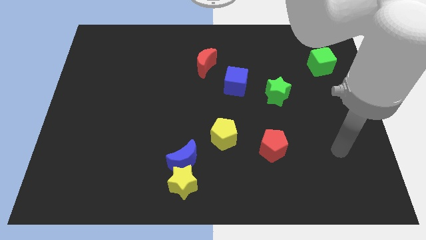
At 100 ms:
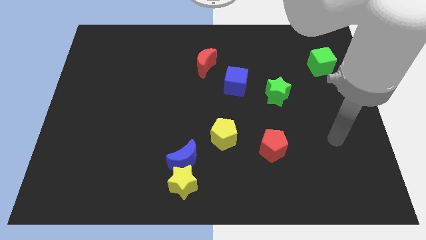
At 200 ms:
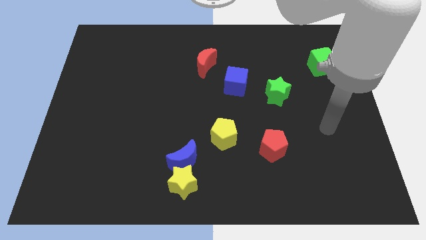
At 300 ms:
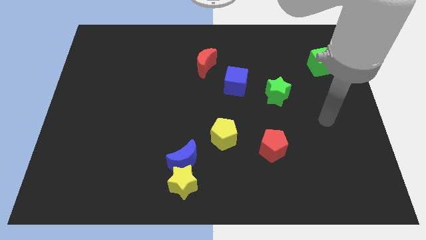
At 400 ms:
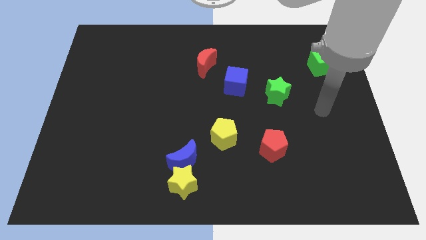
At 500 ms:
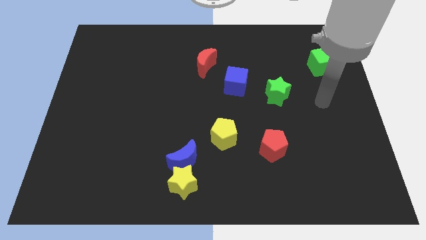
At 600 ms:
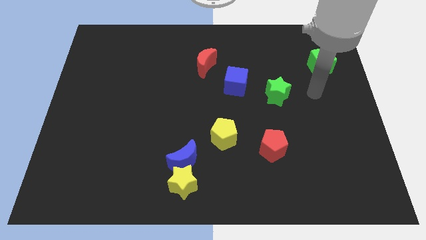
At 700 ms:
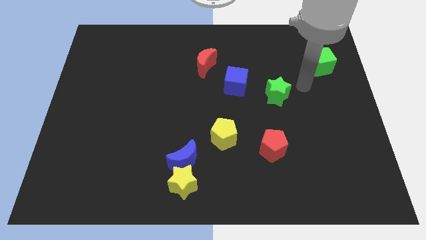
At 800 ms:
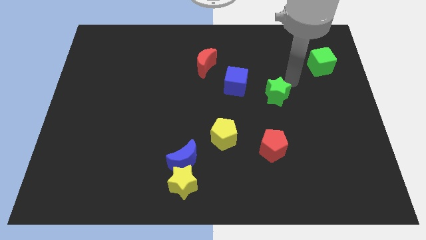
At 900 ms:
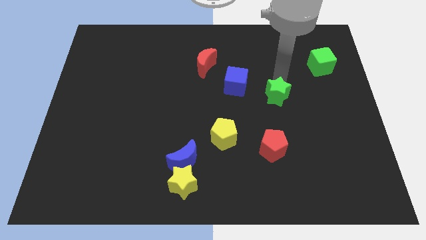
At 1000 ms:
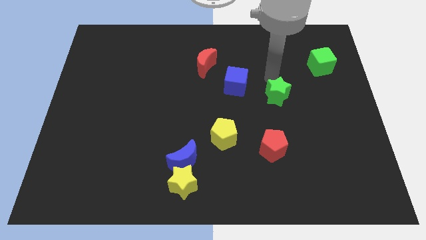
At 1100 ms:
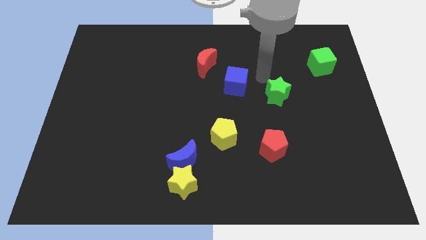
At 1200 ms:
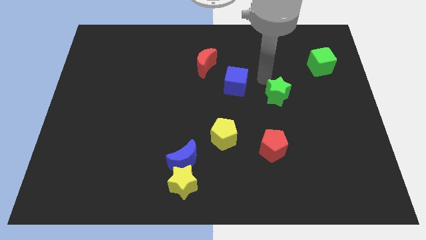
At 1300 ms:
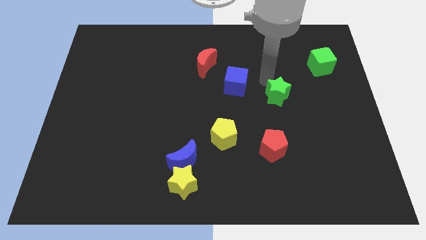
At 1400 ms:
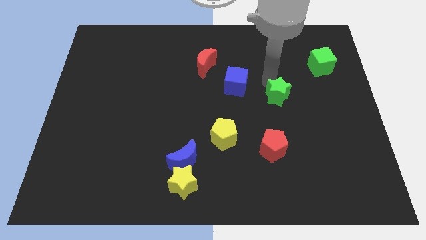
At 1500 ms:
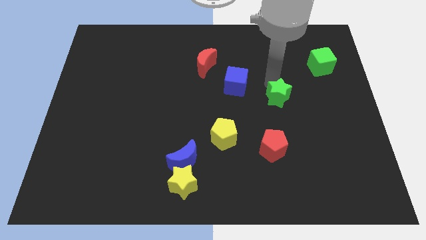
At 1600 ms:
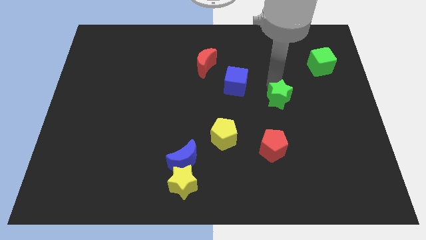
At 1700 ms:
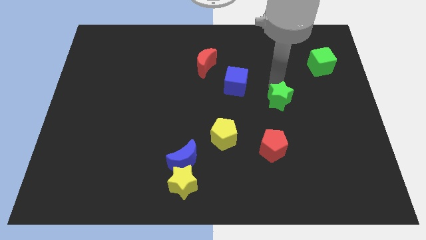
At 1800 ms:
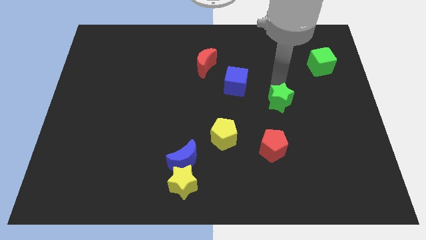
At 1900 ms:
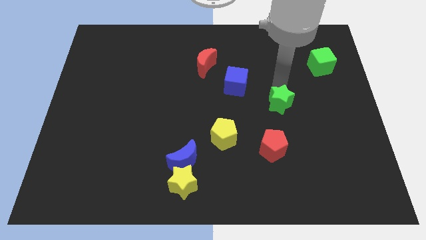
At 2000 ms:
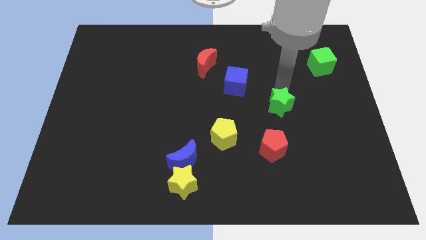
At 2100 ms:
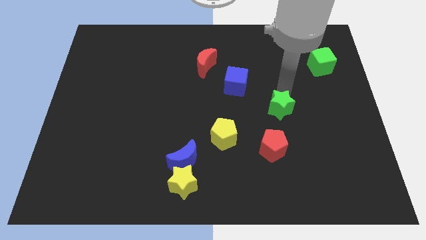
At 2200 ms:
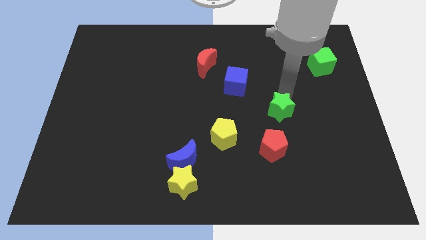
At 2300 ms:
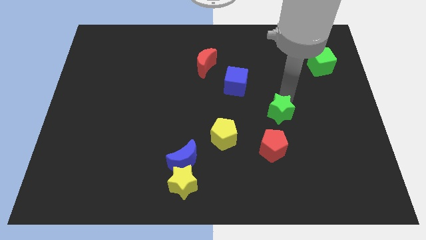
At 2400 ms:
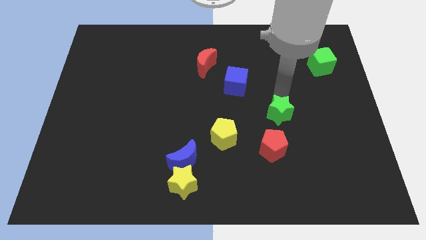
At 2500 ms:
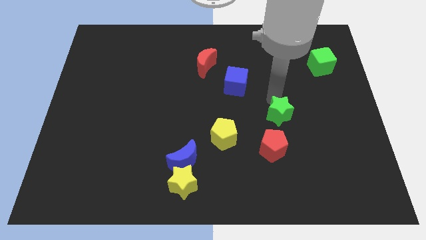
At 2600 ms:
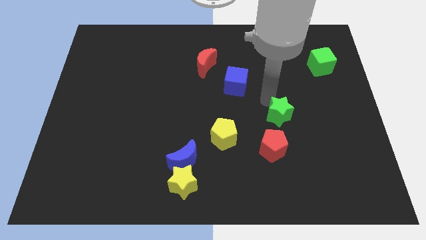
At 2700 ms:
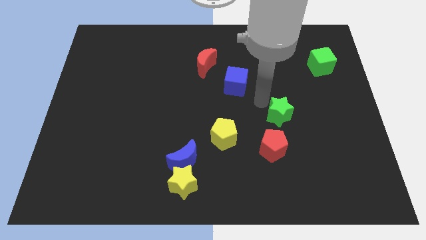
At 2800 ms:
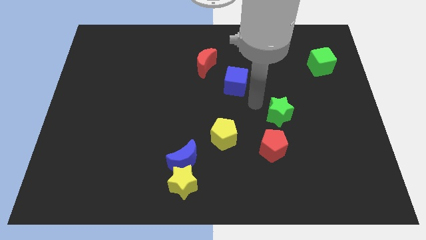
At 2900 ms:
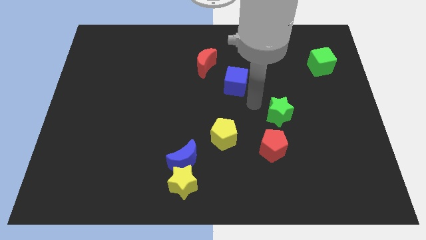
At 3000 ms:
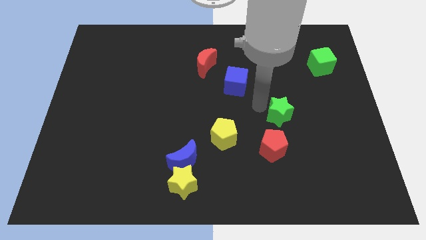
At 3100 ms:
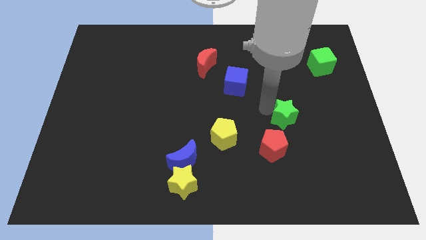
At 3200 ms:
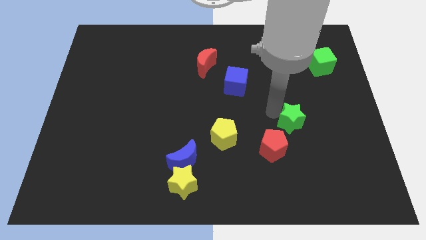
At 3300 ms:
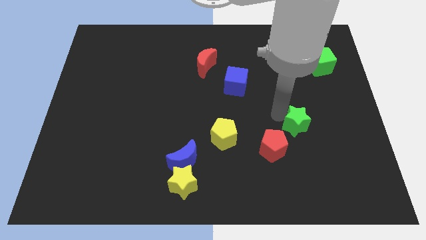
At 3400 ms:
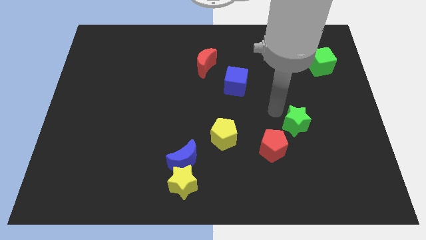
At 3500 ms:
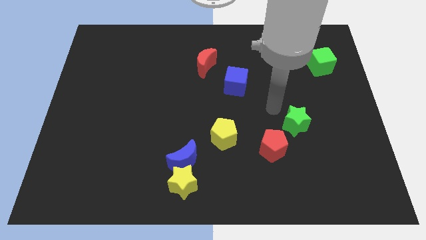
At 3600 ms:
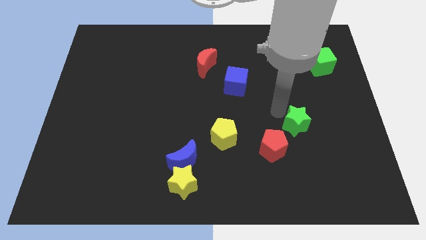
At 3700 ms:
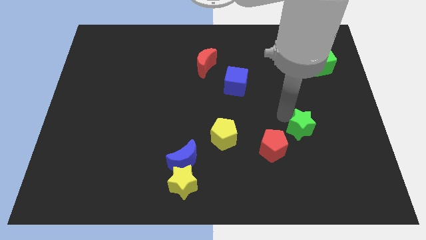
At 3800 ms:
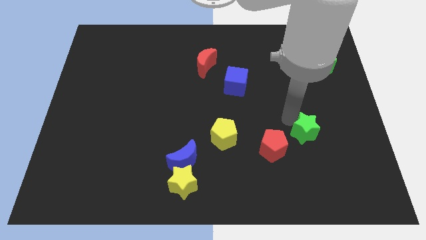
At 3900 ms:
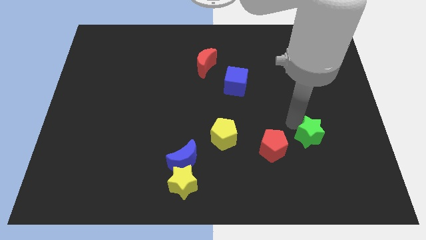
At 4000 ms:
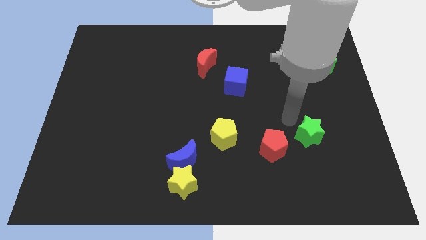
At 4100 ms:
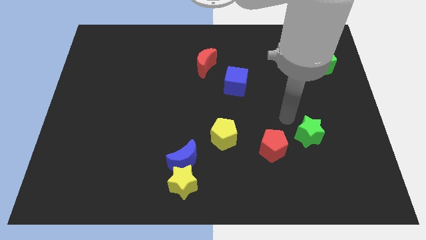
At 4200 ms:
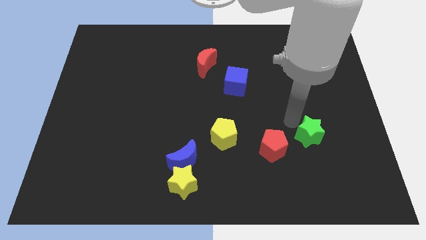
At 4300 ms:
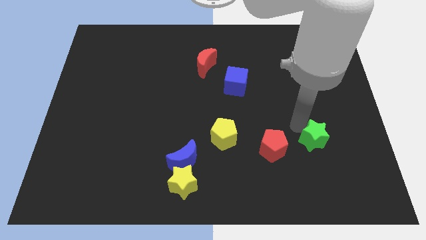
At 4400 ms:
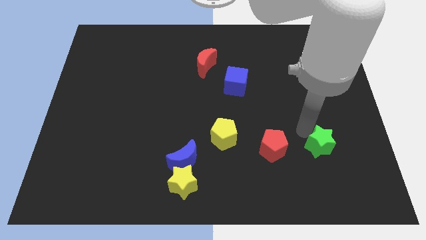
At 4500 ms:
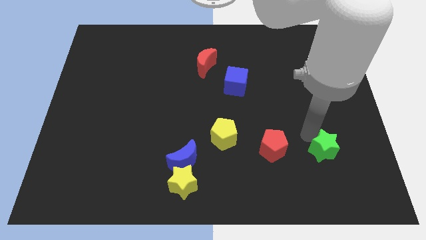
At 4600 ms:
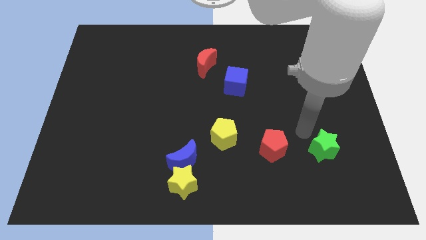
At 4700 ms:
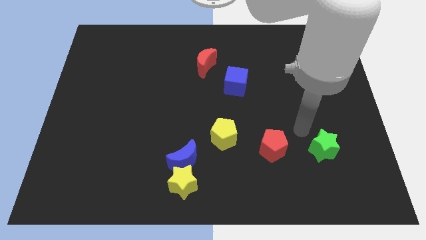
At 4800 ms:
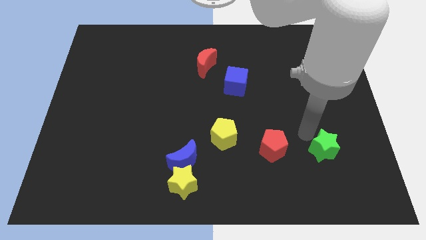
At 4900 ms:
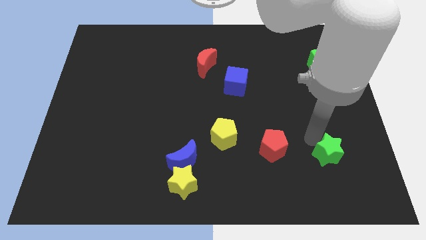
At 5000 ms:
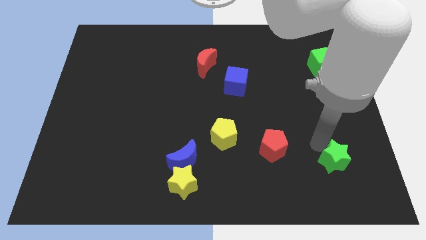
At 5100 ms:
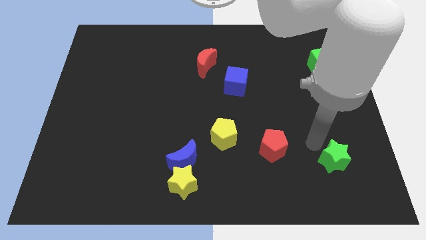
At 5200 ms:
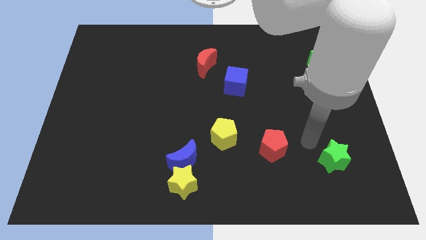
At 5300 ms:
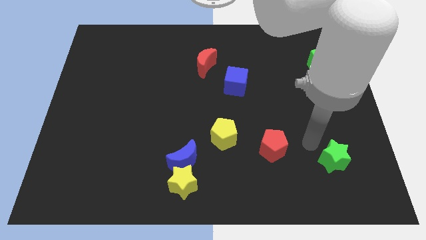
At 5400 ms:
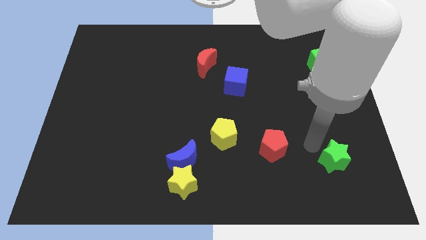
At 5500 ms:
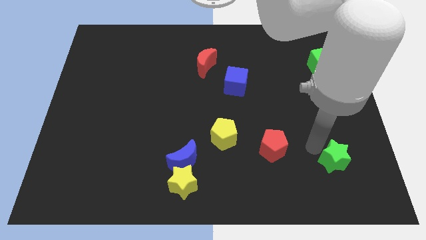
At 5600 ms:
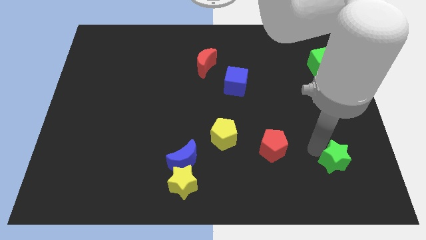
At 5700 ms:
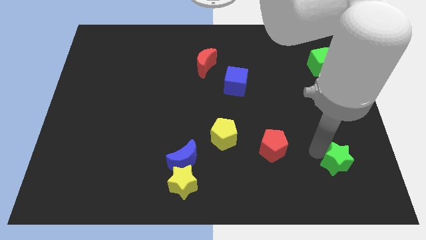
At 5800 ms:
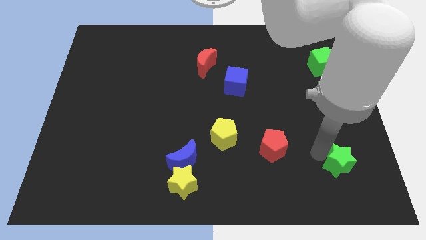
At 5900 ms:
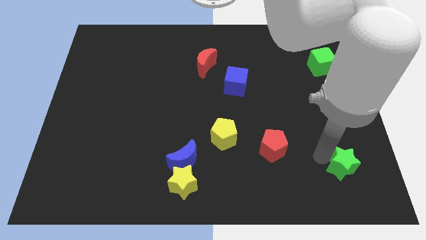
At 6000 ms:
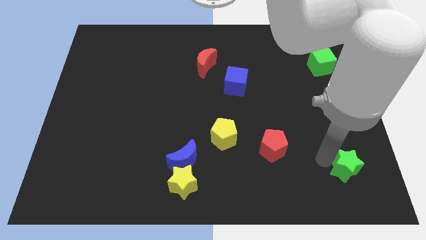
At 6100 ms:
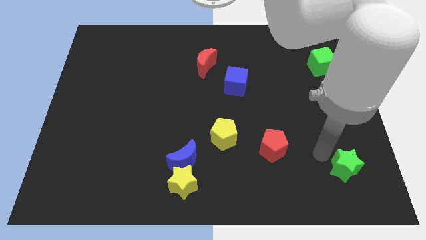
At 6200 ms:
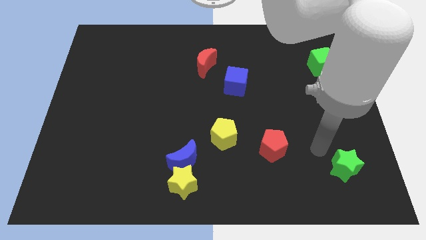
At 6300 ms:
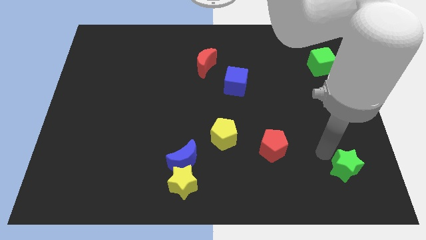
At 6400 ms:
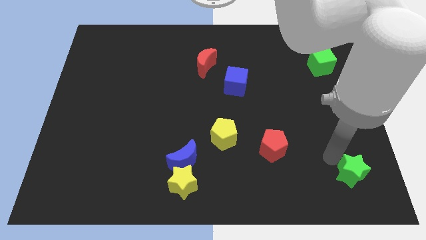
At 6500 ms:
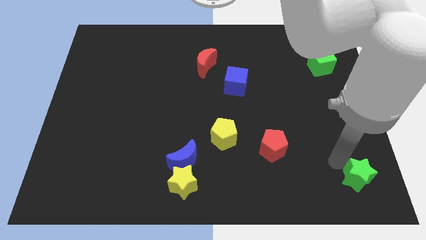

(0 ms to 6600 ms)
put the green star to the bottom right of the board

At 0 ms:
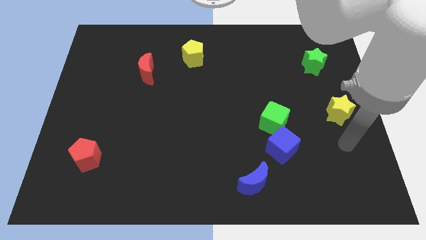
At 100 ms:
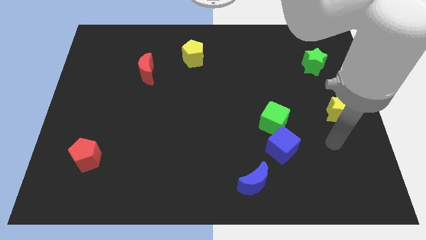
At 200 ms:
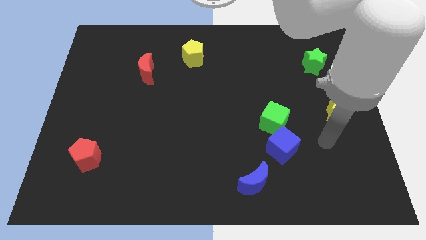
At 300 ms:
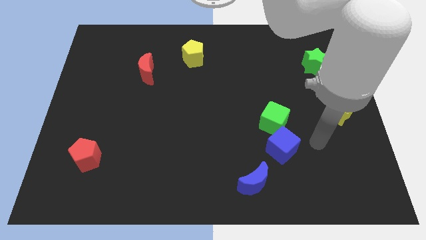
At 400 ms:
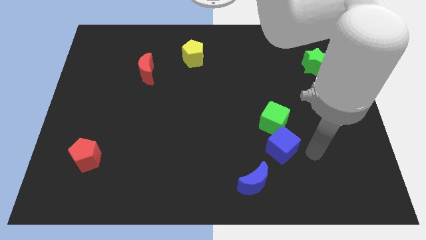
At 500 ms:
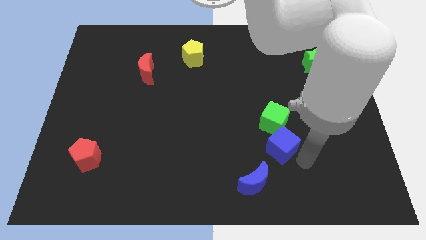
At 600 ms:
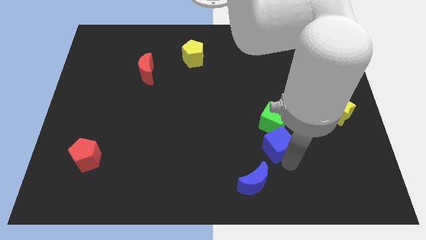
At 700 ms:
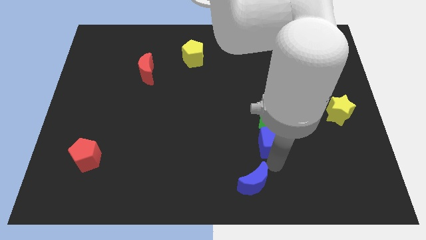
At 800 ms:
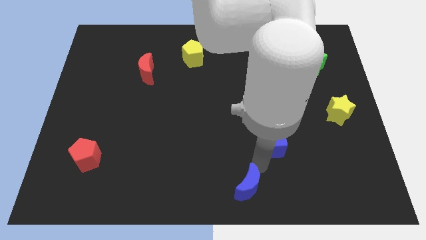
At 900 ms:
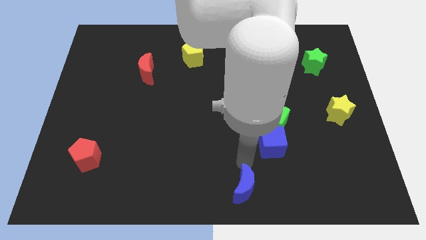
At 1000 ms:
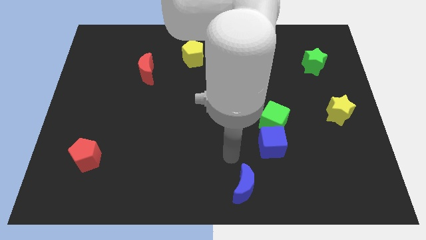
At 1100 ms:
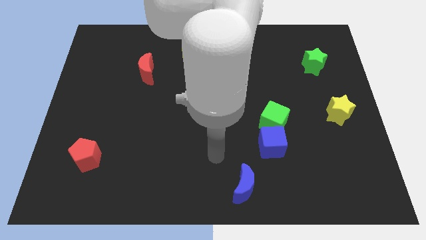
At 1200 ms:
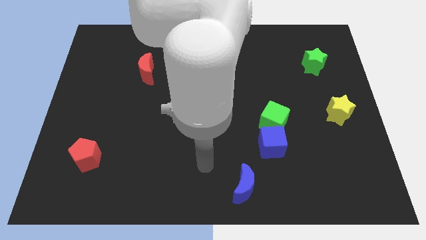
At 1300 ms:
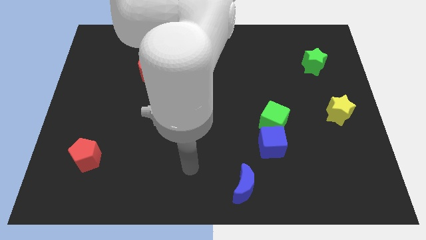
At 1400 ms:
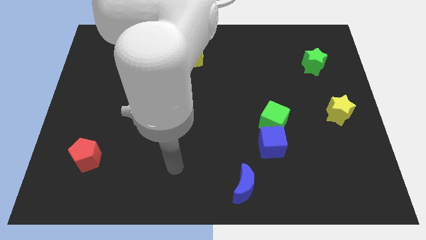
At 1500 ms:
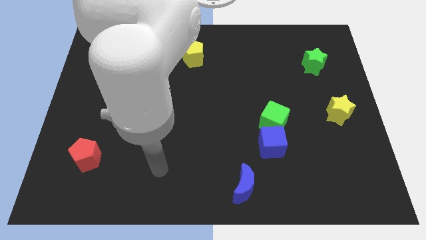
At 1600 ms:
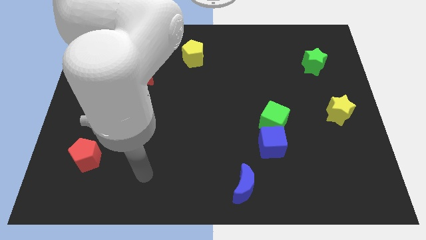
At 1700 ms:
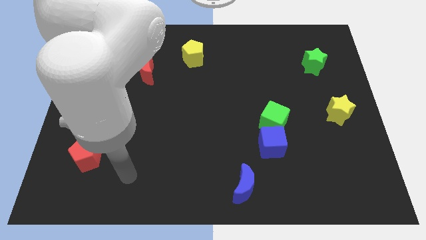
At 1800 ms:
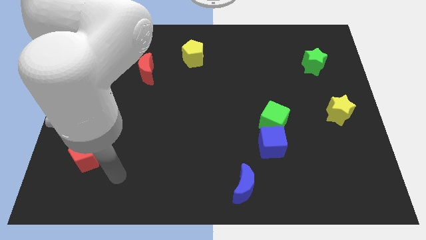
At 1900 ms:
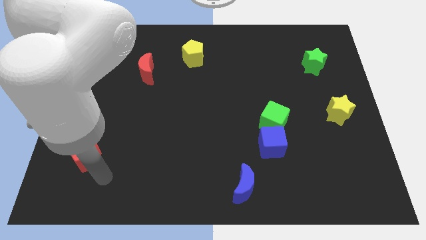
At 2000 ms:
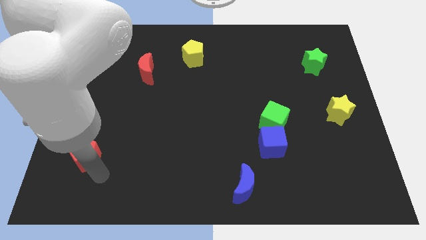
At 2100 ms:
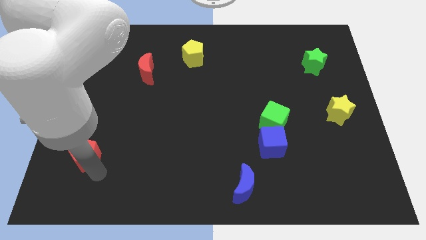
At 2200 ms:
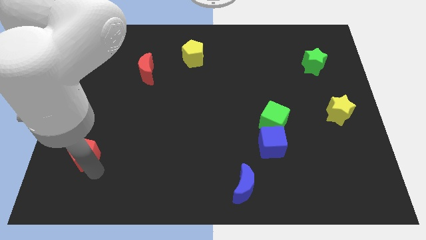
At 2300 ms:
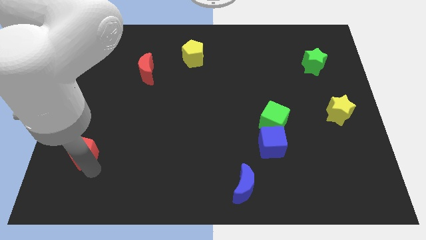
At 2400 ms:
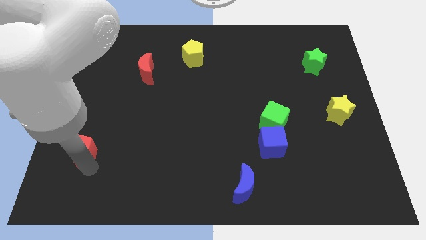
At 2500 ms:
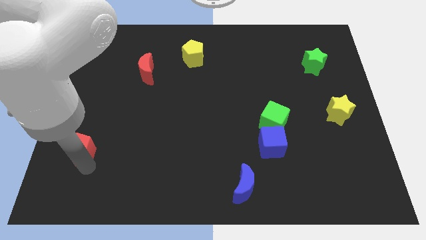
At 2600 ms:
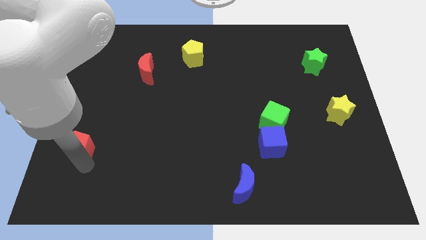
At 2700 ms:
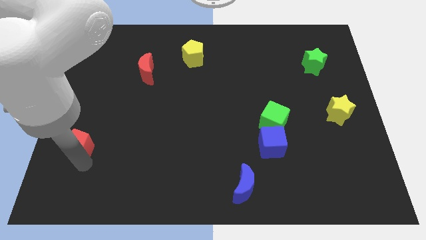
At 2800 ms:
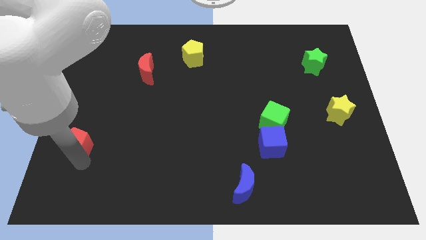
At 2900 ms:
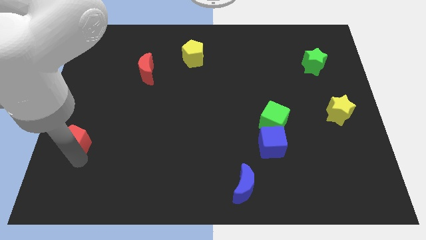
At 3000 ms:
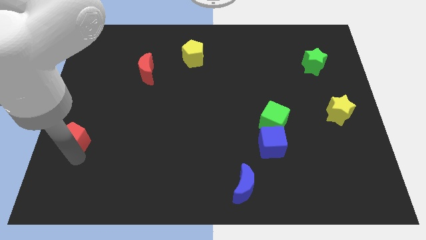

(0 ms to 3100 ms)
slide the red pentagon to the center left
